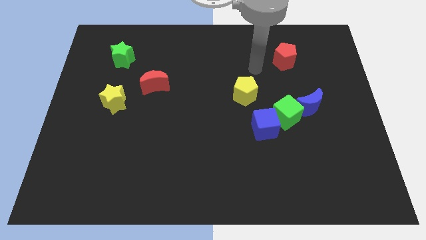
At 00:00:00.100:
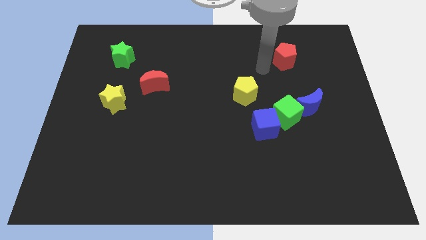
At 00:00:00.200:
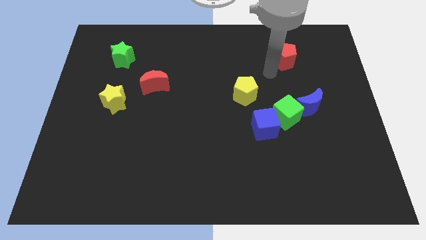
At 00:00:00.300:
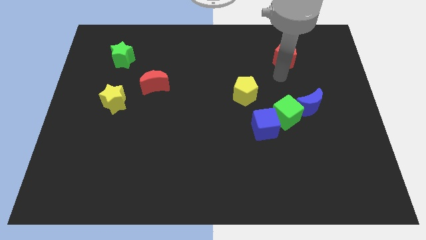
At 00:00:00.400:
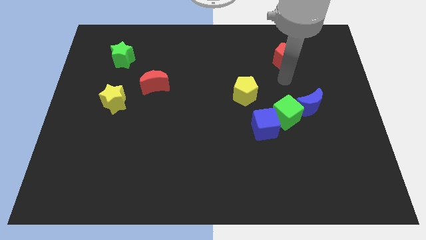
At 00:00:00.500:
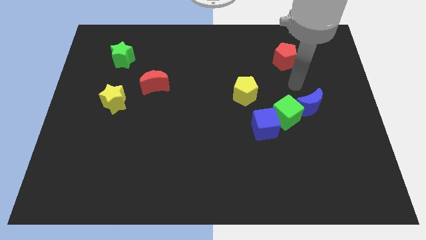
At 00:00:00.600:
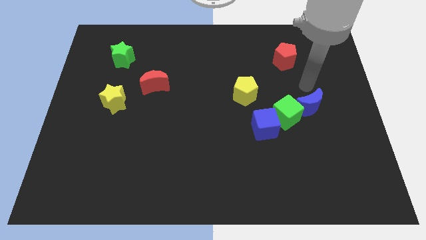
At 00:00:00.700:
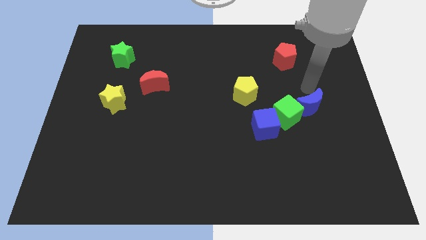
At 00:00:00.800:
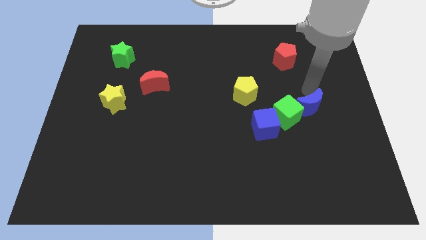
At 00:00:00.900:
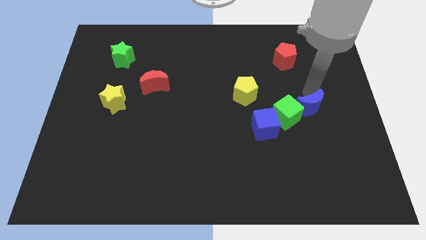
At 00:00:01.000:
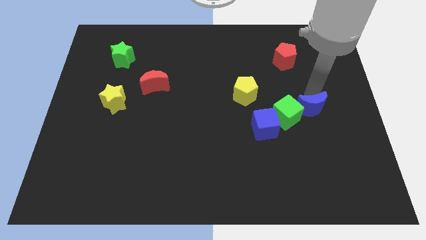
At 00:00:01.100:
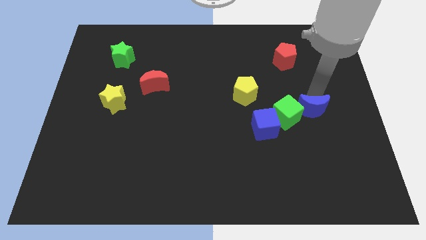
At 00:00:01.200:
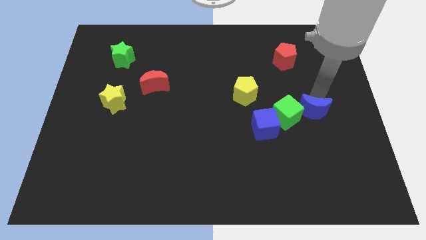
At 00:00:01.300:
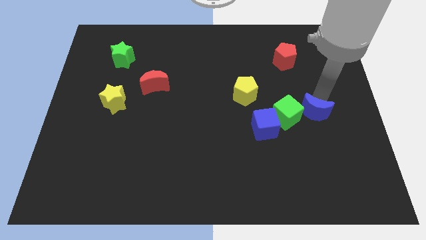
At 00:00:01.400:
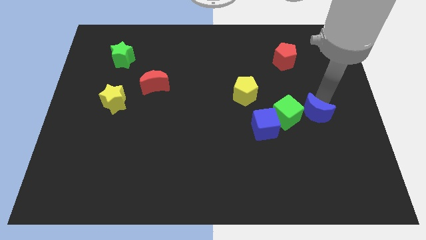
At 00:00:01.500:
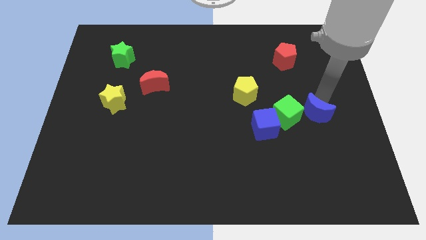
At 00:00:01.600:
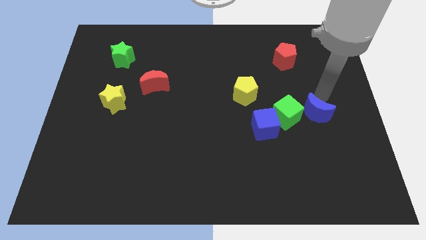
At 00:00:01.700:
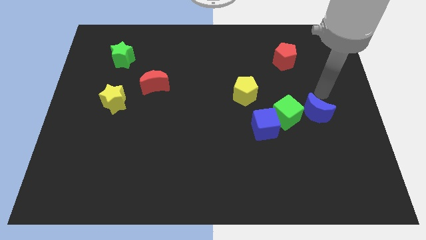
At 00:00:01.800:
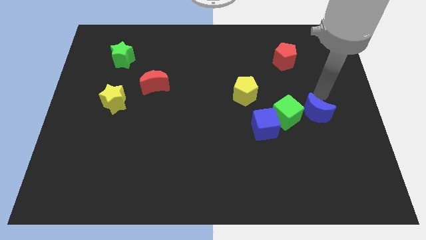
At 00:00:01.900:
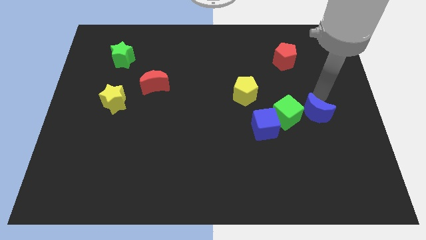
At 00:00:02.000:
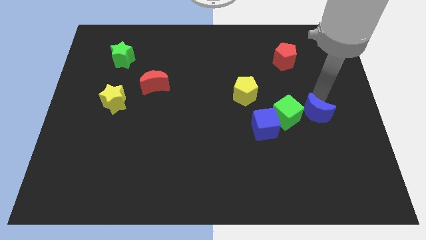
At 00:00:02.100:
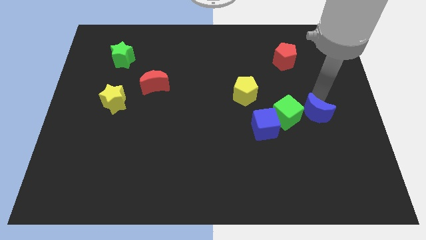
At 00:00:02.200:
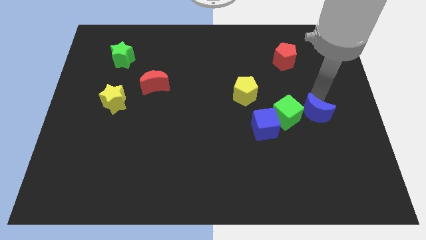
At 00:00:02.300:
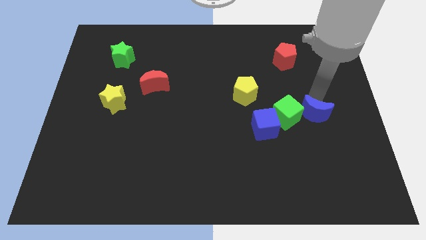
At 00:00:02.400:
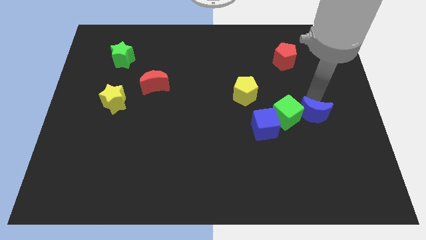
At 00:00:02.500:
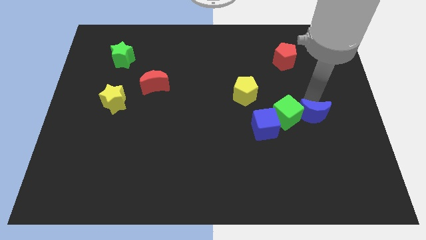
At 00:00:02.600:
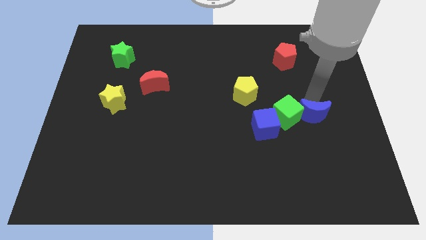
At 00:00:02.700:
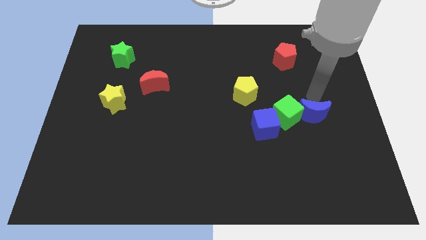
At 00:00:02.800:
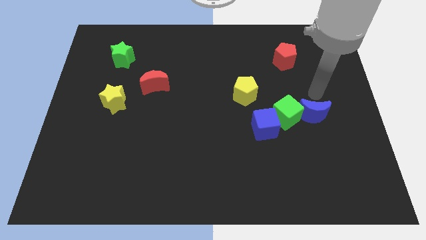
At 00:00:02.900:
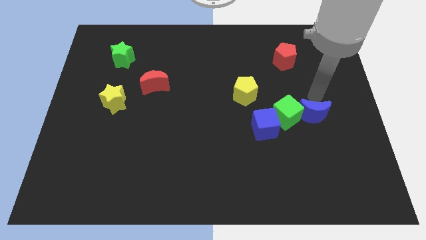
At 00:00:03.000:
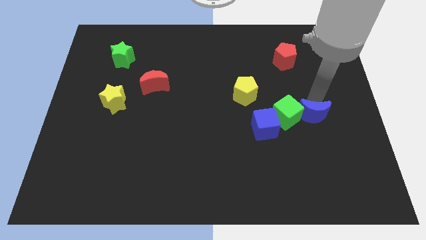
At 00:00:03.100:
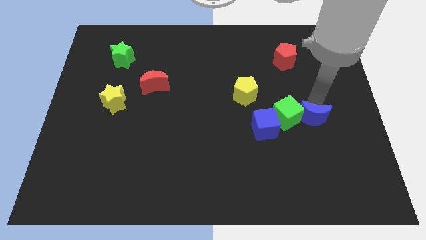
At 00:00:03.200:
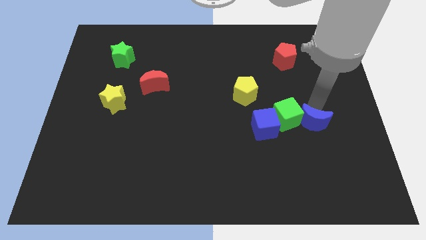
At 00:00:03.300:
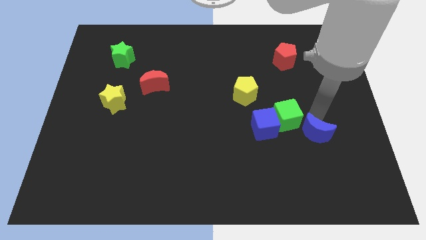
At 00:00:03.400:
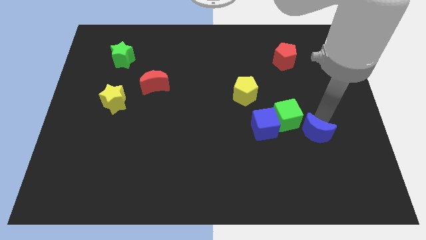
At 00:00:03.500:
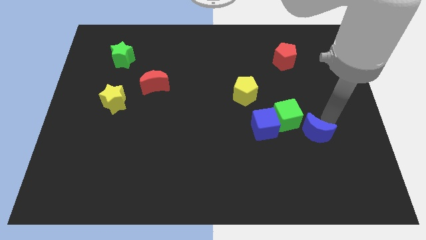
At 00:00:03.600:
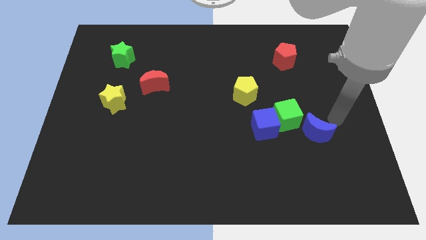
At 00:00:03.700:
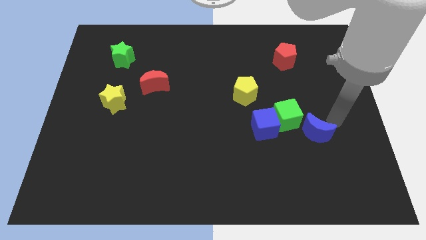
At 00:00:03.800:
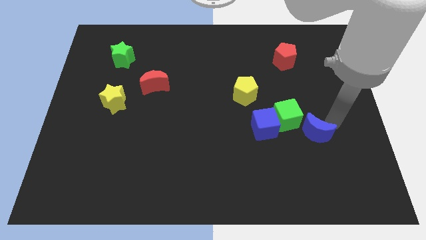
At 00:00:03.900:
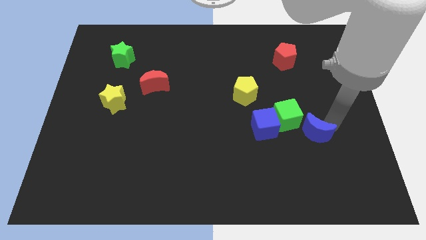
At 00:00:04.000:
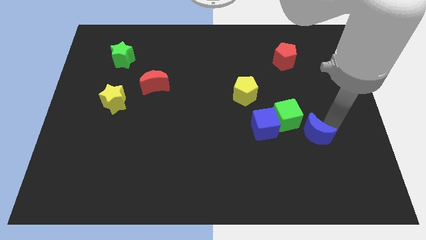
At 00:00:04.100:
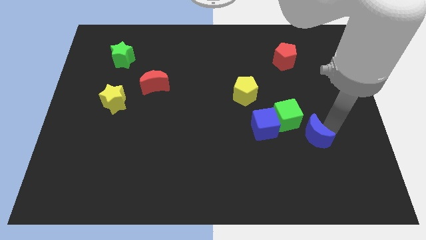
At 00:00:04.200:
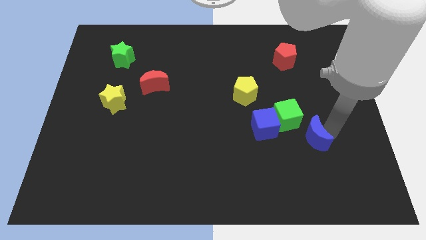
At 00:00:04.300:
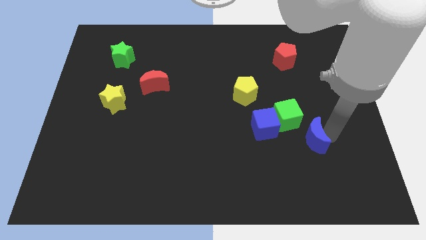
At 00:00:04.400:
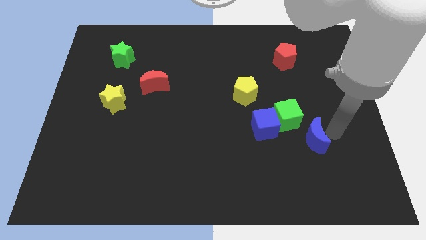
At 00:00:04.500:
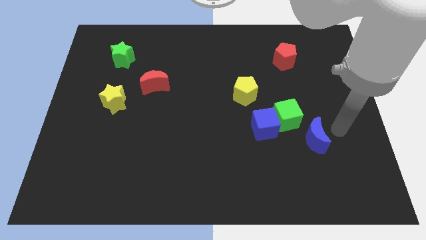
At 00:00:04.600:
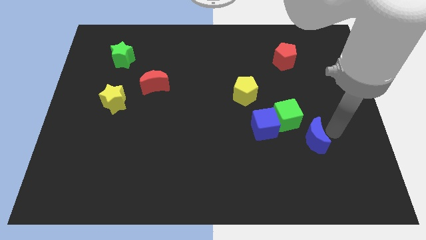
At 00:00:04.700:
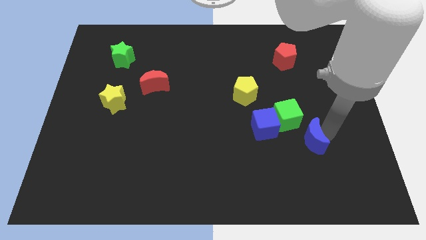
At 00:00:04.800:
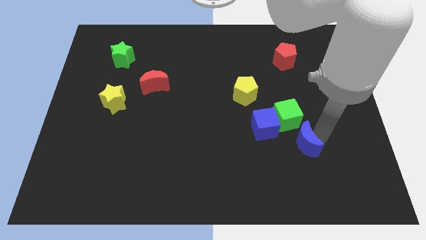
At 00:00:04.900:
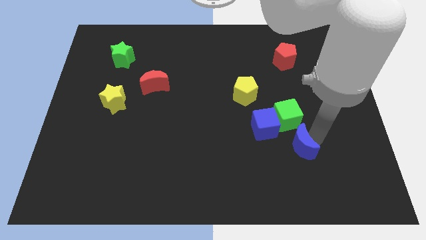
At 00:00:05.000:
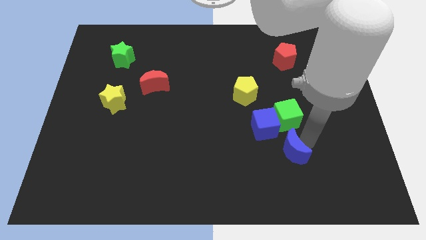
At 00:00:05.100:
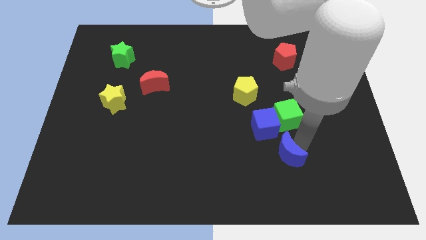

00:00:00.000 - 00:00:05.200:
put the blue moon to the bottom of the blue cube

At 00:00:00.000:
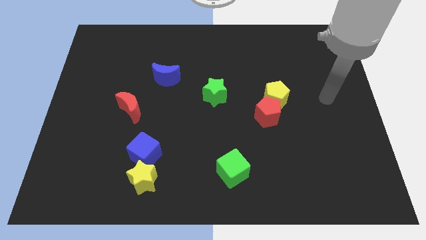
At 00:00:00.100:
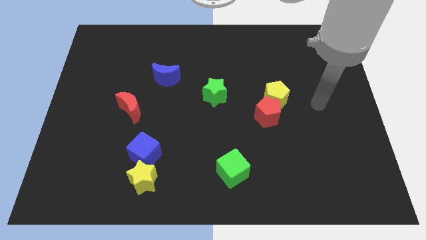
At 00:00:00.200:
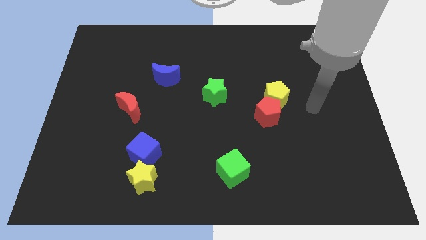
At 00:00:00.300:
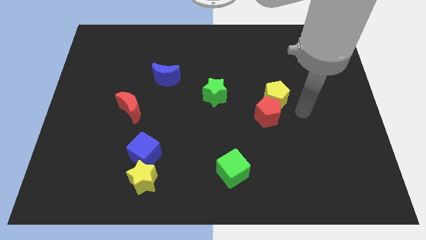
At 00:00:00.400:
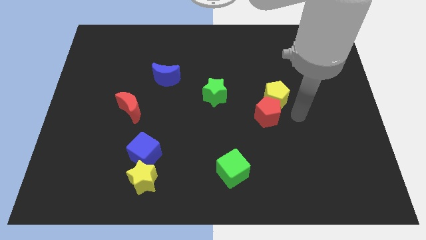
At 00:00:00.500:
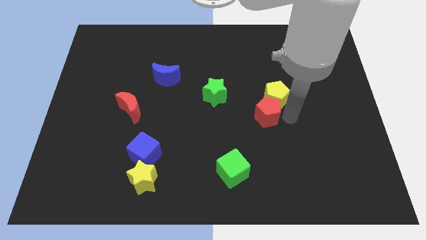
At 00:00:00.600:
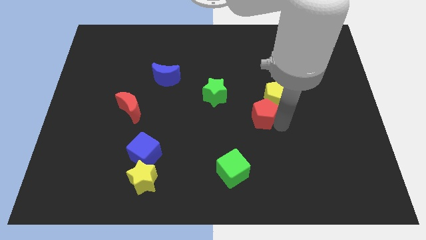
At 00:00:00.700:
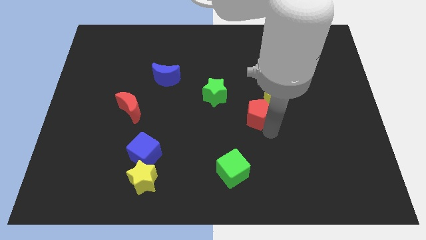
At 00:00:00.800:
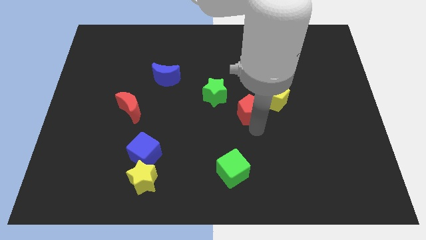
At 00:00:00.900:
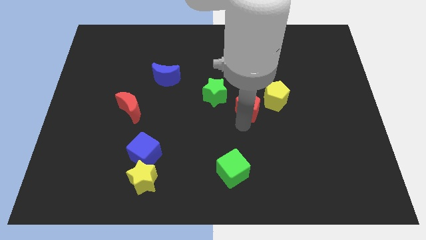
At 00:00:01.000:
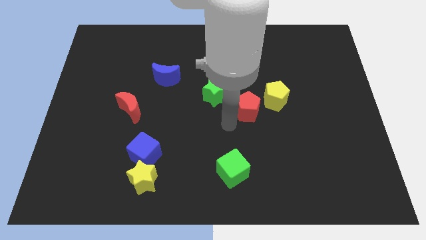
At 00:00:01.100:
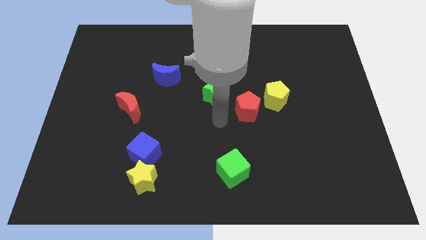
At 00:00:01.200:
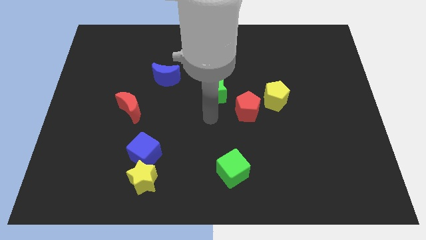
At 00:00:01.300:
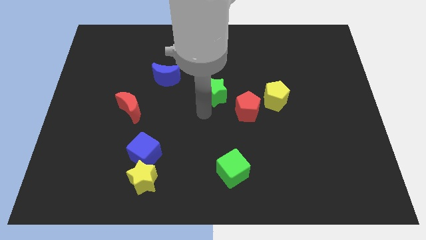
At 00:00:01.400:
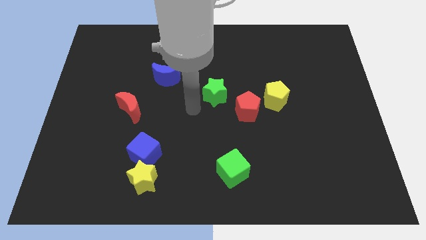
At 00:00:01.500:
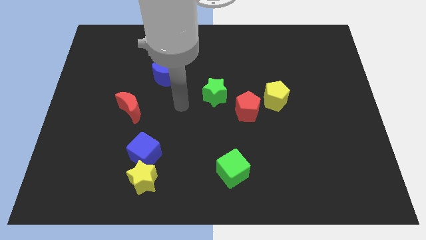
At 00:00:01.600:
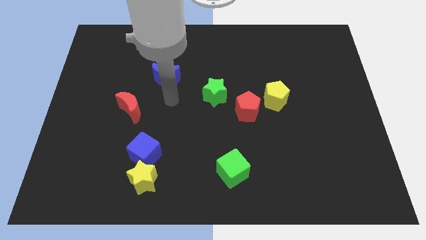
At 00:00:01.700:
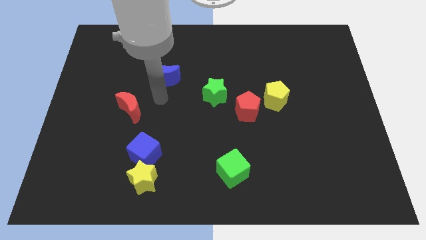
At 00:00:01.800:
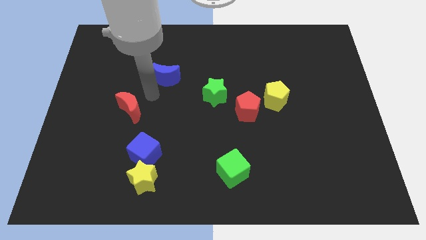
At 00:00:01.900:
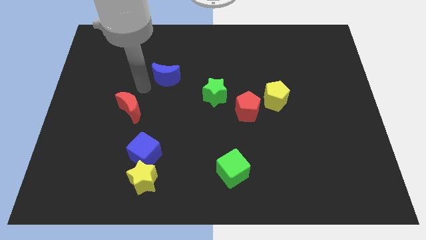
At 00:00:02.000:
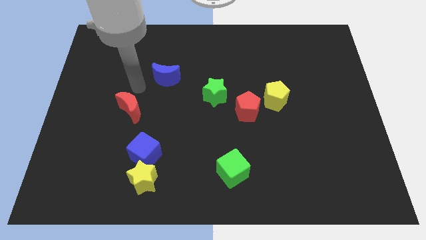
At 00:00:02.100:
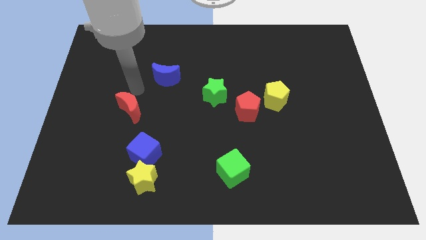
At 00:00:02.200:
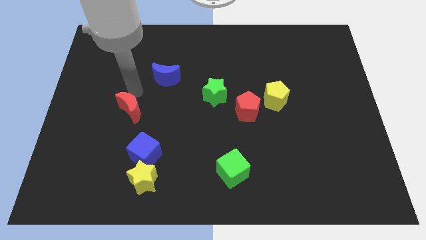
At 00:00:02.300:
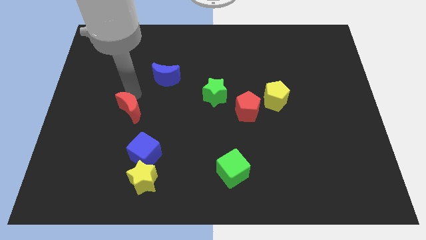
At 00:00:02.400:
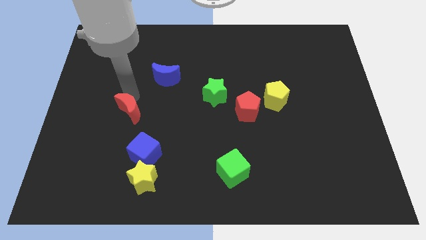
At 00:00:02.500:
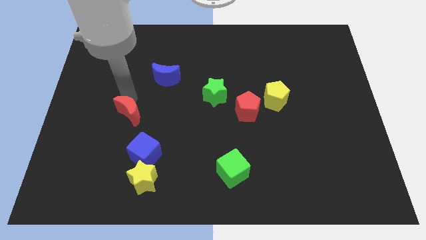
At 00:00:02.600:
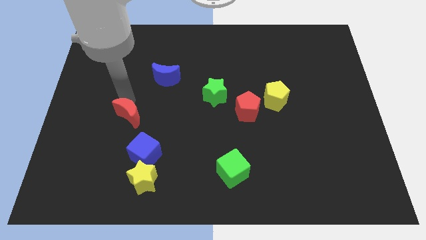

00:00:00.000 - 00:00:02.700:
push the red moon to the top left side of the blue cube
